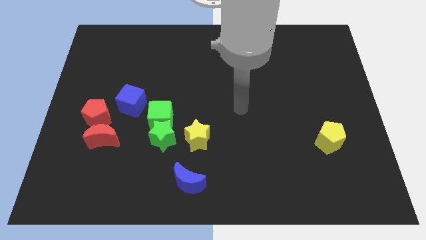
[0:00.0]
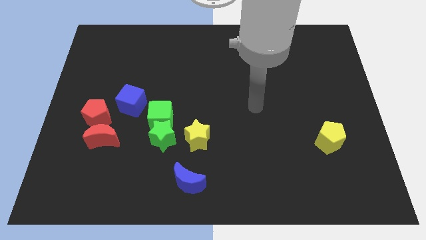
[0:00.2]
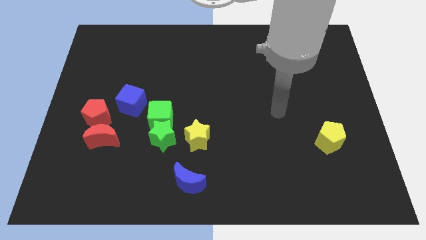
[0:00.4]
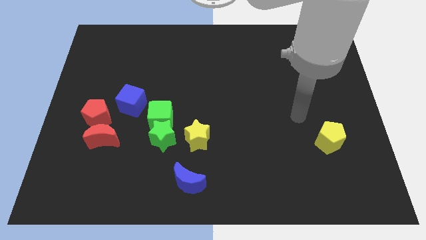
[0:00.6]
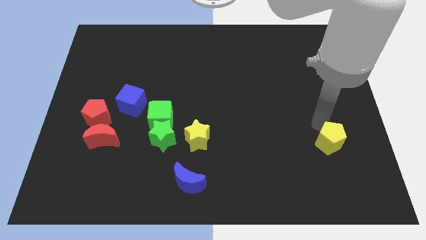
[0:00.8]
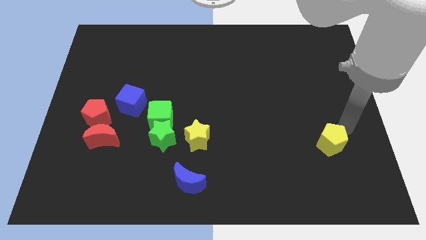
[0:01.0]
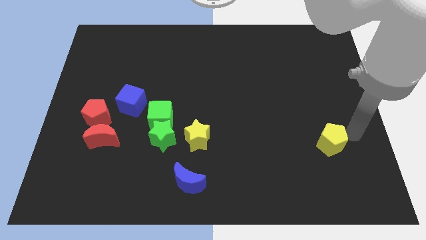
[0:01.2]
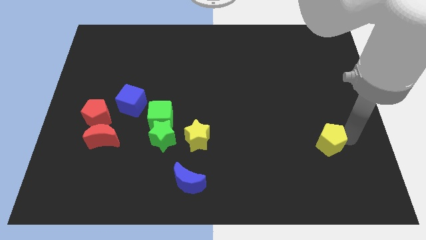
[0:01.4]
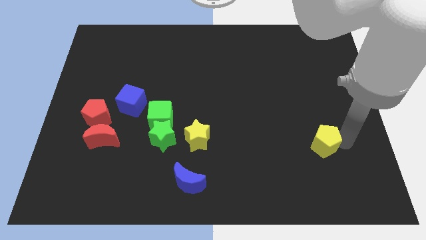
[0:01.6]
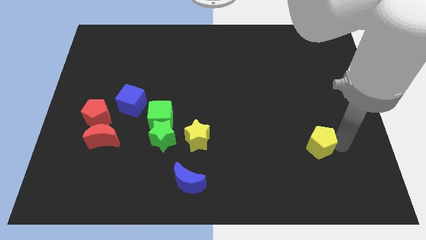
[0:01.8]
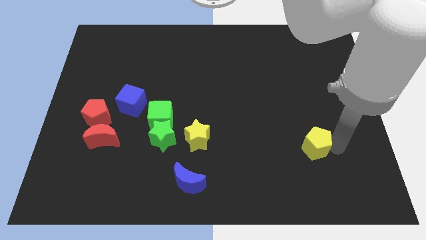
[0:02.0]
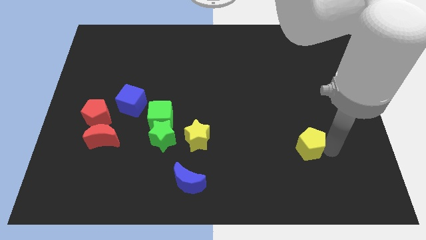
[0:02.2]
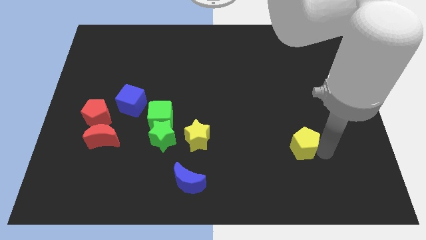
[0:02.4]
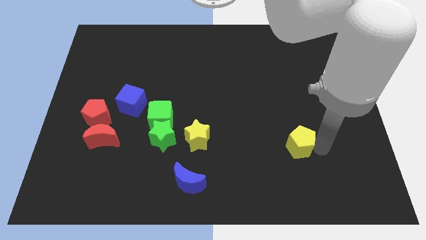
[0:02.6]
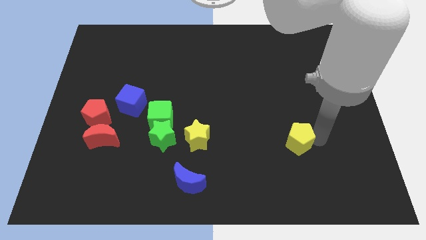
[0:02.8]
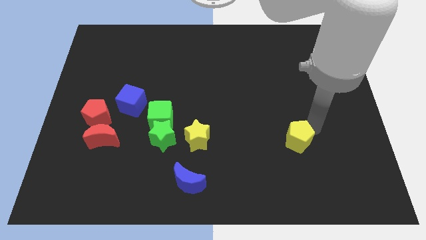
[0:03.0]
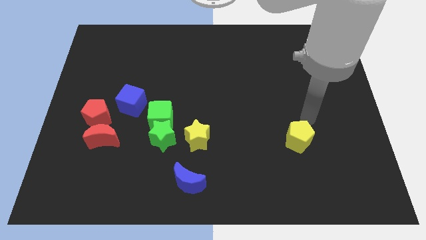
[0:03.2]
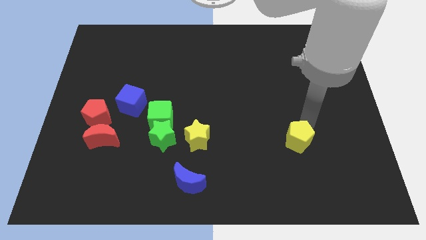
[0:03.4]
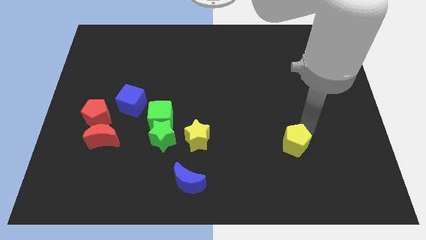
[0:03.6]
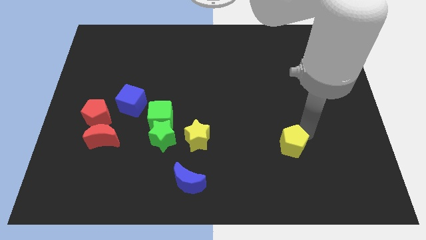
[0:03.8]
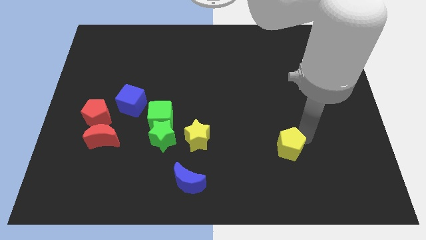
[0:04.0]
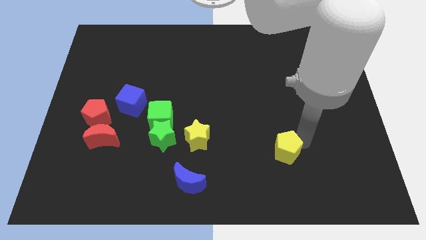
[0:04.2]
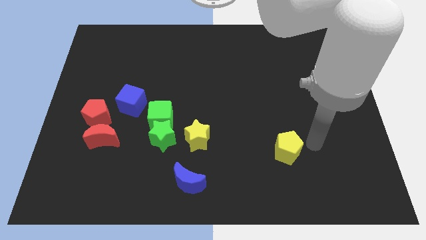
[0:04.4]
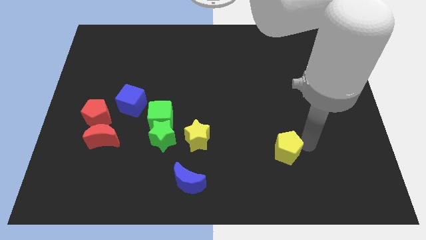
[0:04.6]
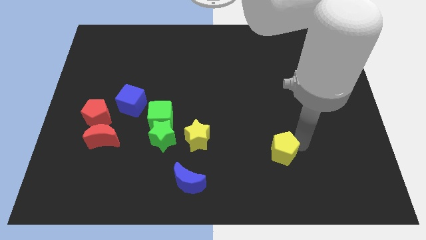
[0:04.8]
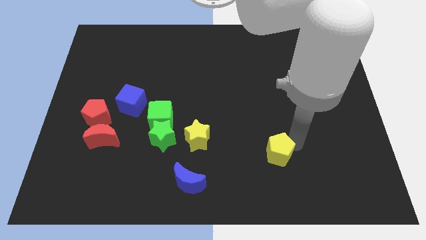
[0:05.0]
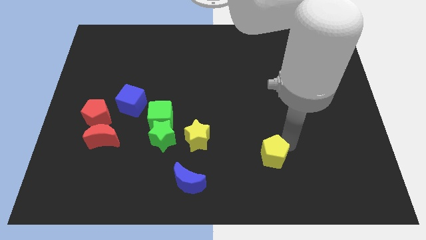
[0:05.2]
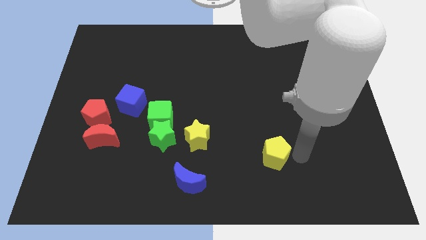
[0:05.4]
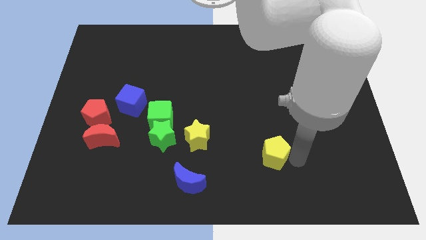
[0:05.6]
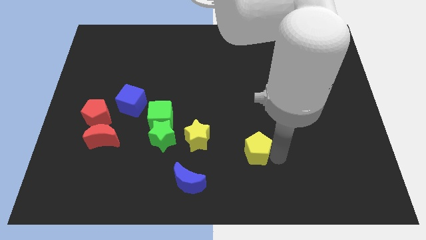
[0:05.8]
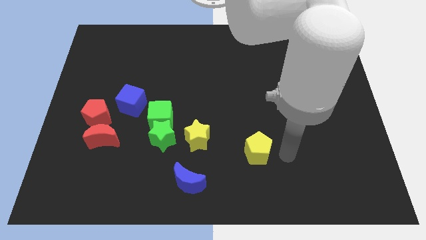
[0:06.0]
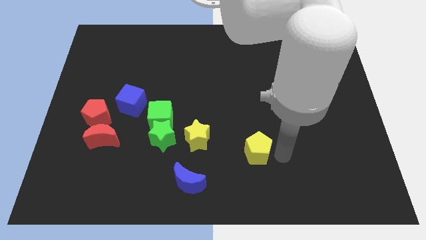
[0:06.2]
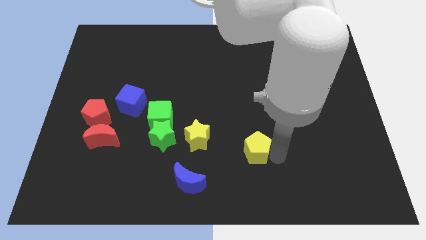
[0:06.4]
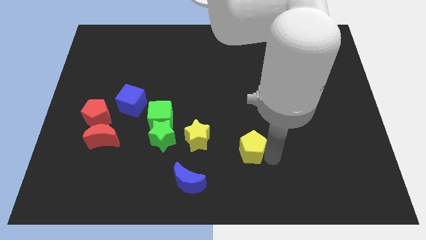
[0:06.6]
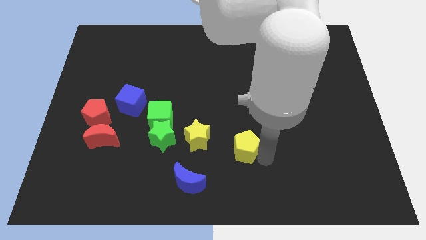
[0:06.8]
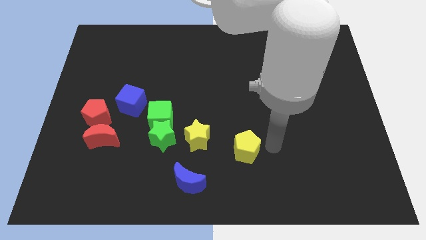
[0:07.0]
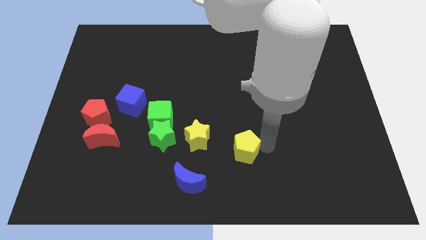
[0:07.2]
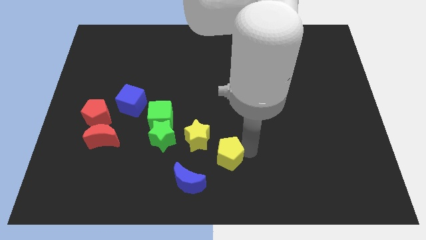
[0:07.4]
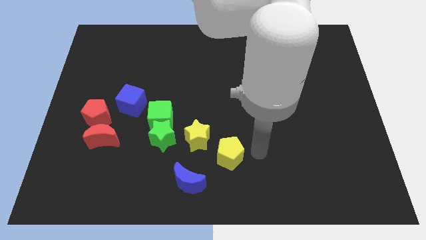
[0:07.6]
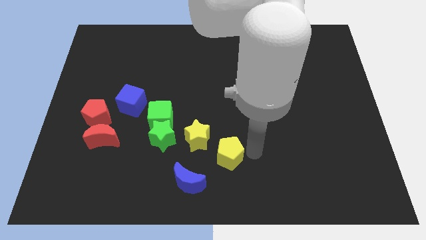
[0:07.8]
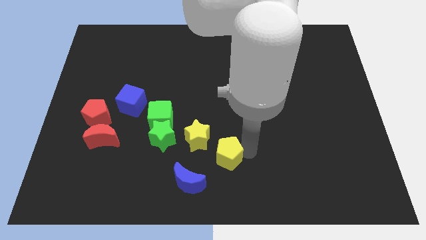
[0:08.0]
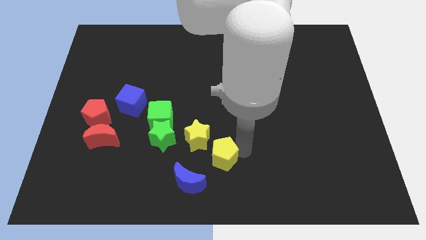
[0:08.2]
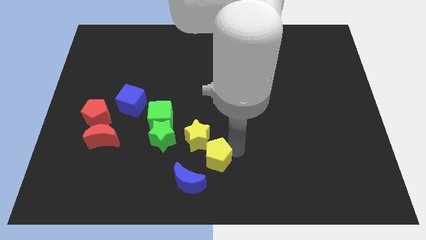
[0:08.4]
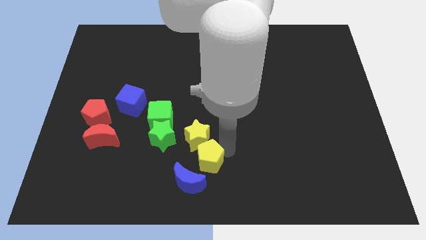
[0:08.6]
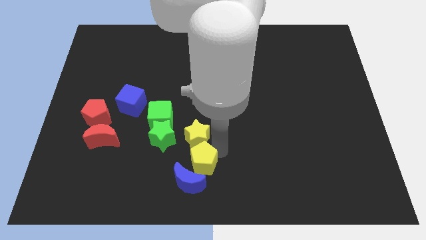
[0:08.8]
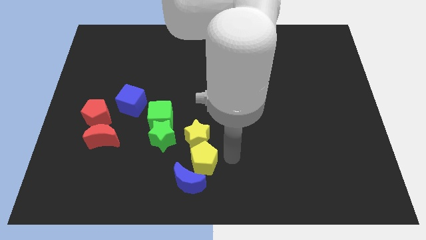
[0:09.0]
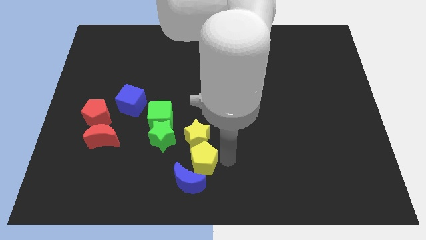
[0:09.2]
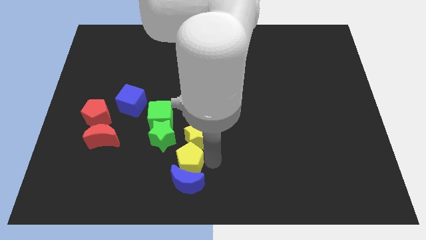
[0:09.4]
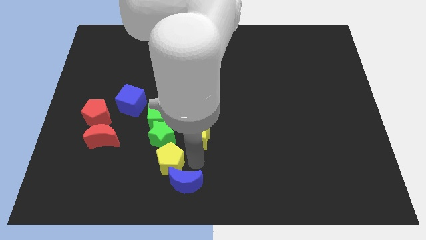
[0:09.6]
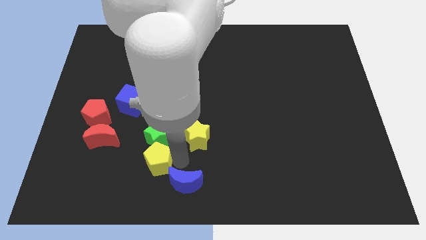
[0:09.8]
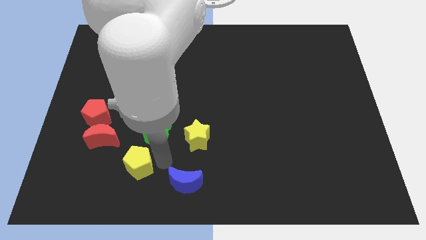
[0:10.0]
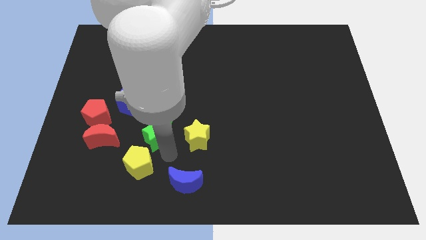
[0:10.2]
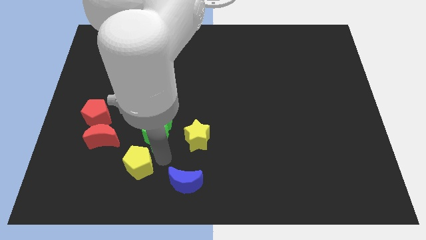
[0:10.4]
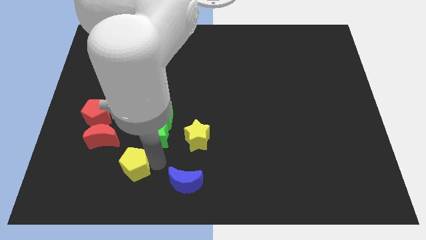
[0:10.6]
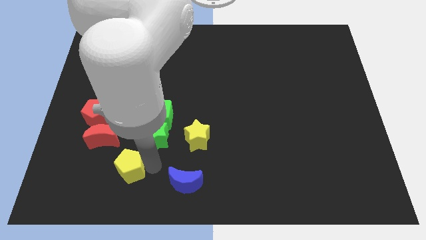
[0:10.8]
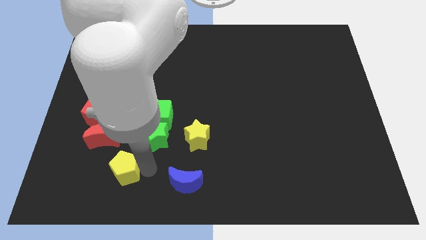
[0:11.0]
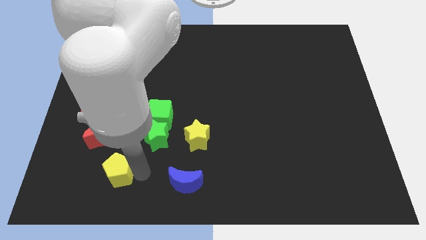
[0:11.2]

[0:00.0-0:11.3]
move the yellow pentagon to the bottom of the red moon

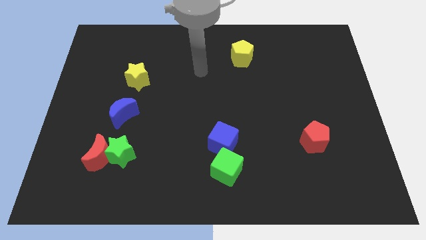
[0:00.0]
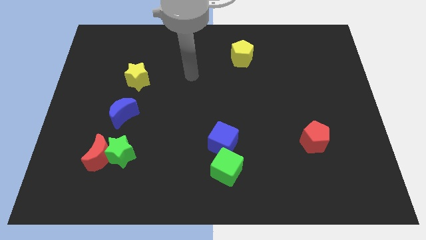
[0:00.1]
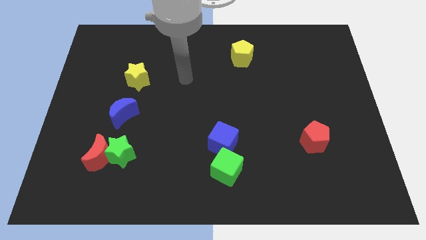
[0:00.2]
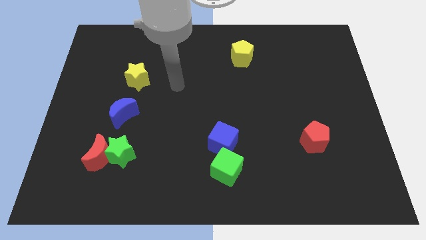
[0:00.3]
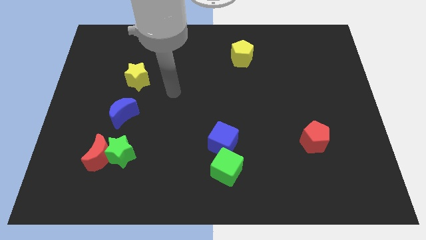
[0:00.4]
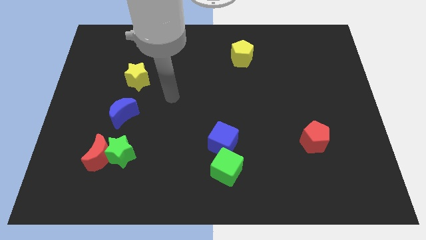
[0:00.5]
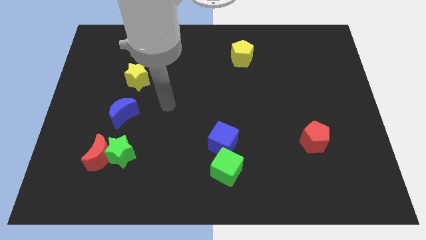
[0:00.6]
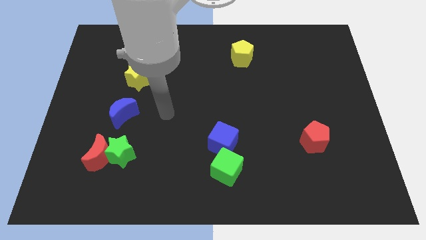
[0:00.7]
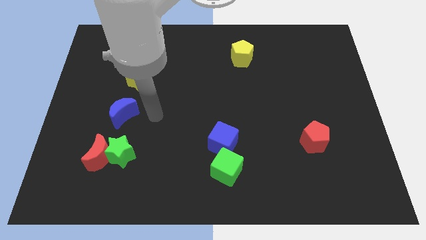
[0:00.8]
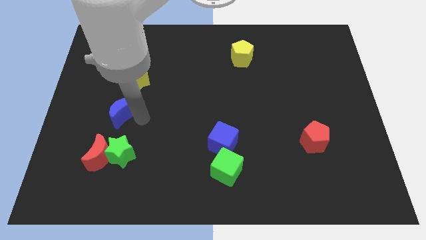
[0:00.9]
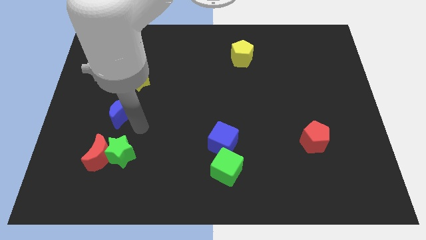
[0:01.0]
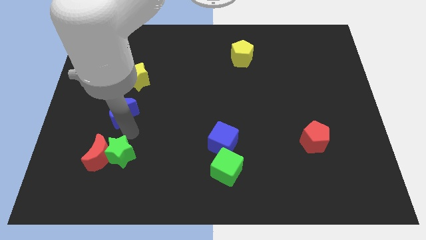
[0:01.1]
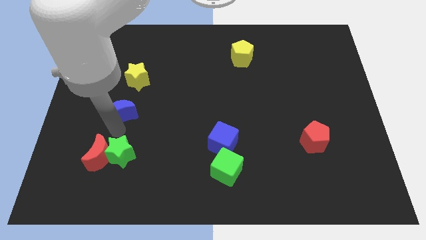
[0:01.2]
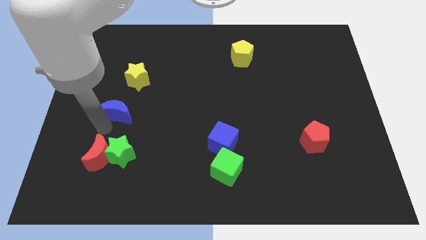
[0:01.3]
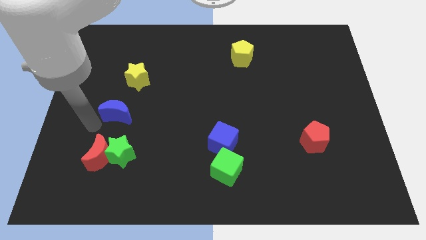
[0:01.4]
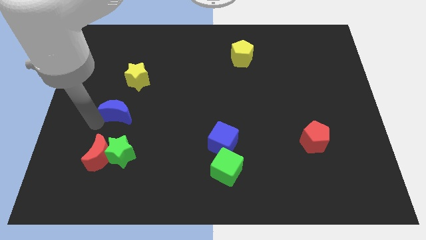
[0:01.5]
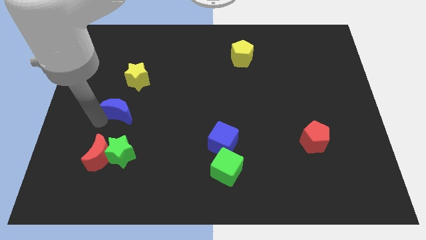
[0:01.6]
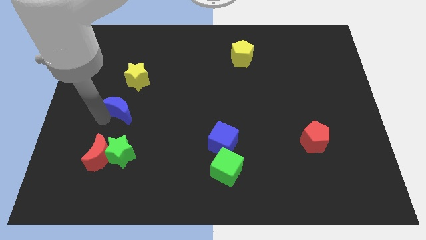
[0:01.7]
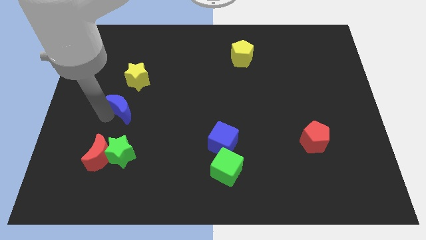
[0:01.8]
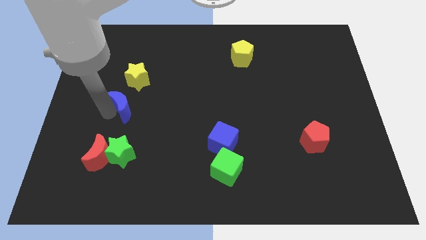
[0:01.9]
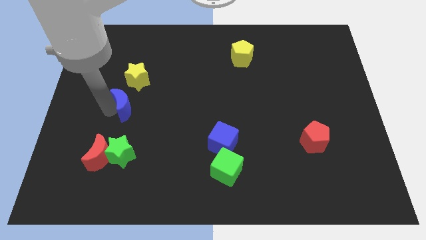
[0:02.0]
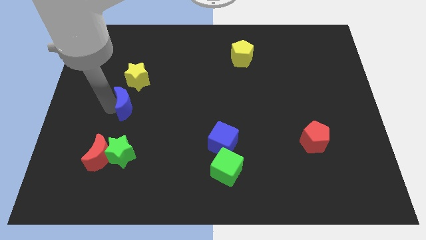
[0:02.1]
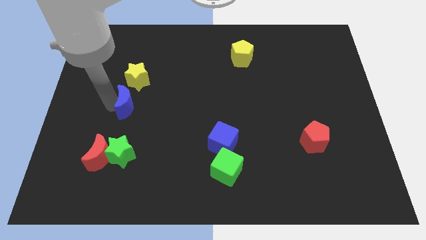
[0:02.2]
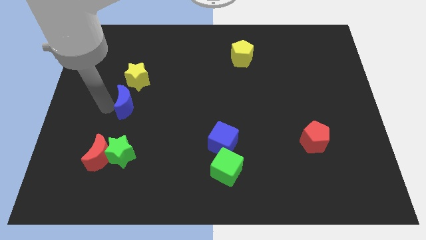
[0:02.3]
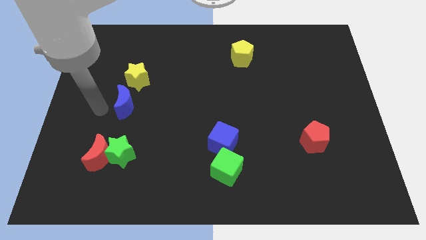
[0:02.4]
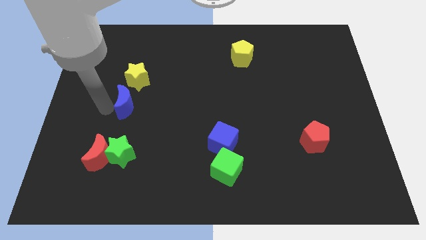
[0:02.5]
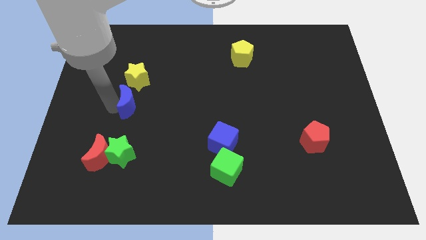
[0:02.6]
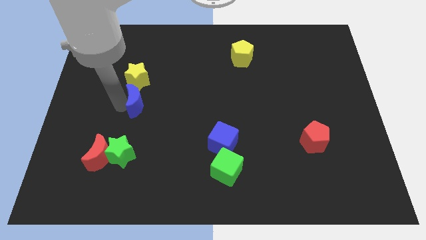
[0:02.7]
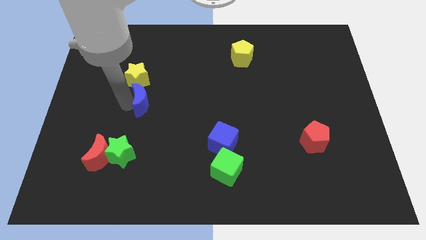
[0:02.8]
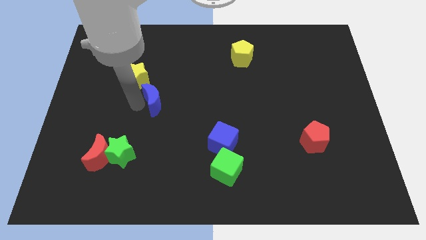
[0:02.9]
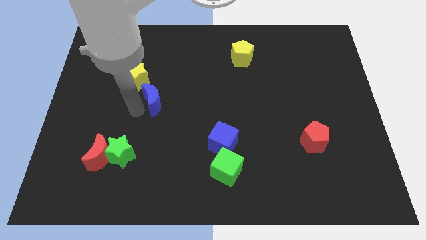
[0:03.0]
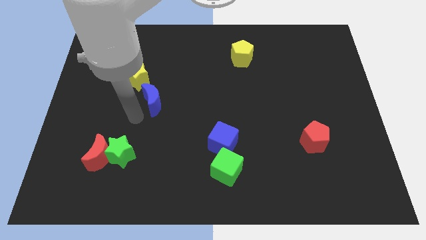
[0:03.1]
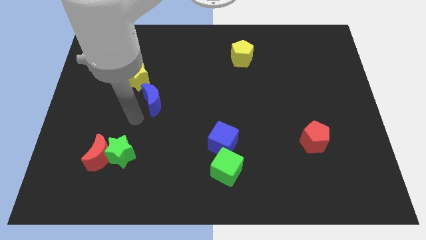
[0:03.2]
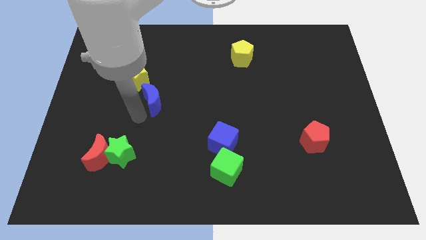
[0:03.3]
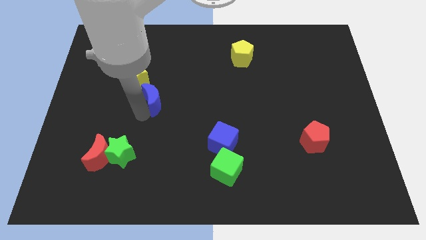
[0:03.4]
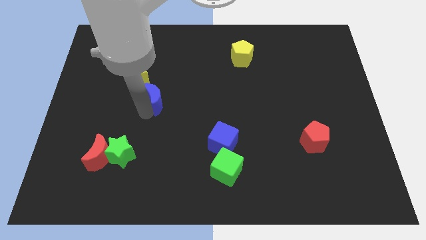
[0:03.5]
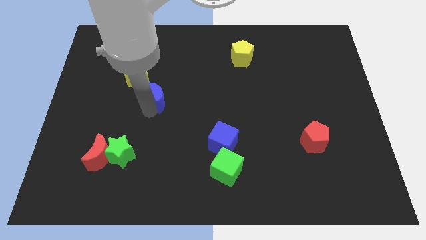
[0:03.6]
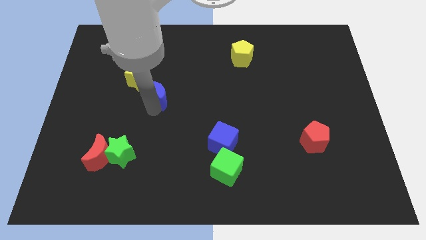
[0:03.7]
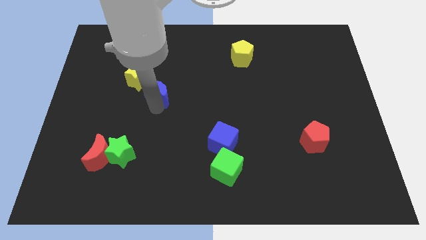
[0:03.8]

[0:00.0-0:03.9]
slide the blue moon just right of the yellow star
